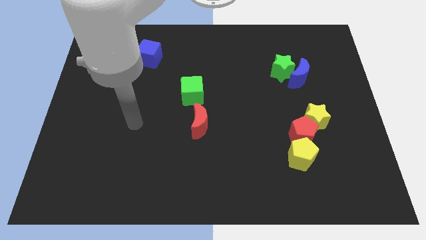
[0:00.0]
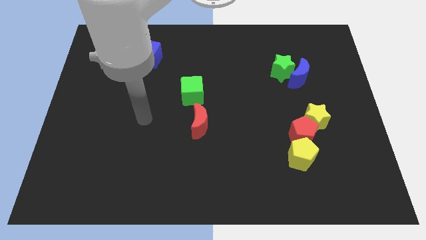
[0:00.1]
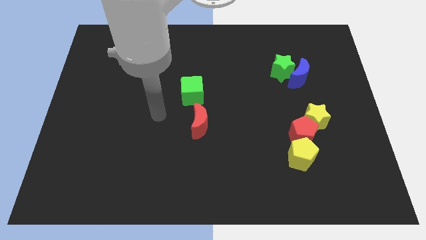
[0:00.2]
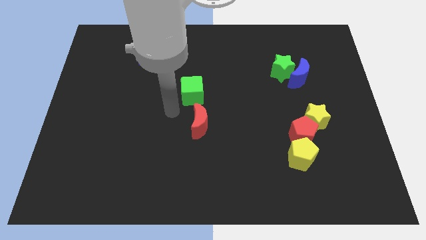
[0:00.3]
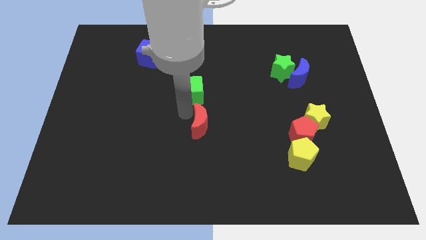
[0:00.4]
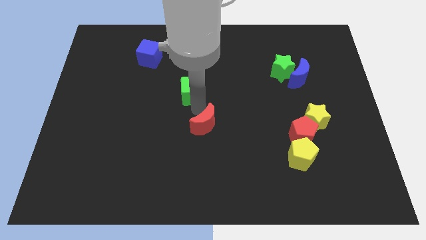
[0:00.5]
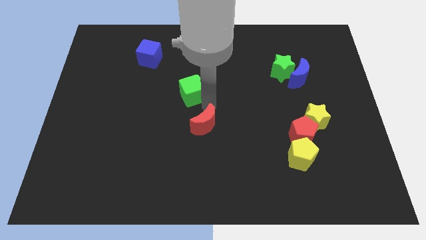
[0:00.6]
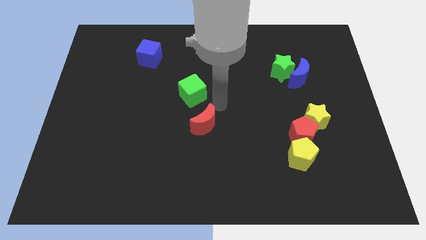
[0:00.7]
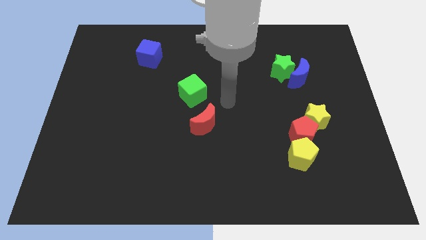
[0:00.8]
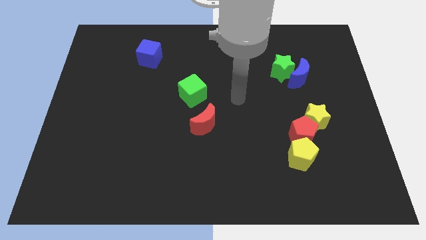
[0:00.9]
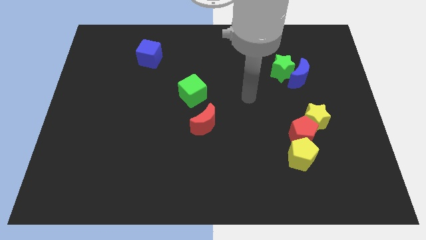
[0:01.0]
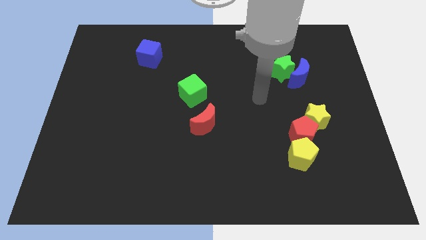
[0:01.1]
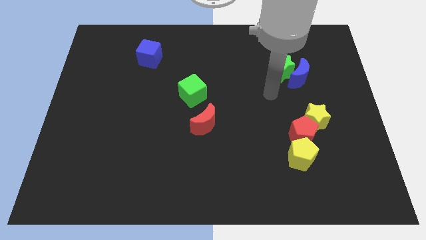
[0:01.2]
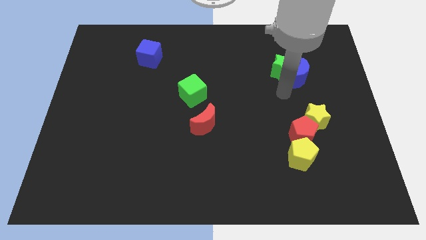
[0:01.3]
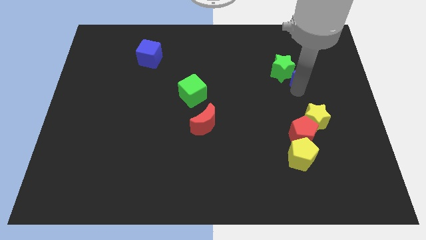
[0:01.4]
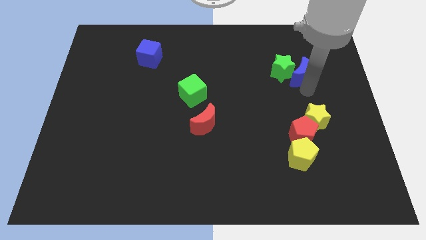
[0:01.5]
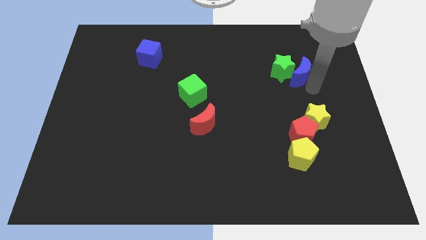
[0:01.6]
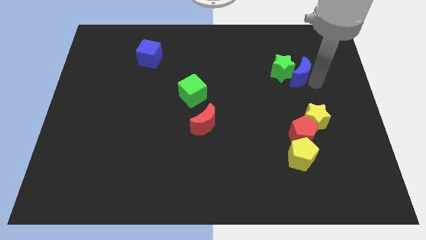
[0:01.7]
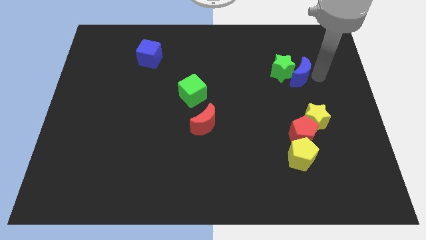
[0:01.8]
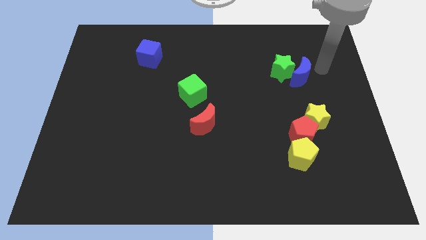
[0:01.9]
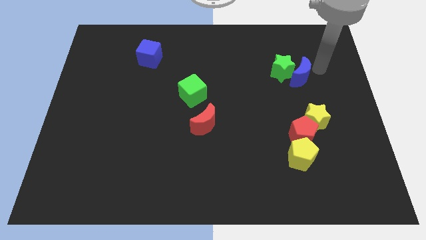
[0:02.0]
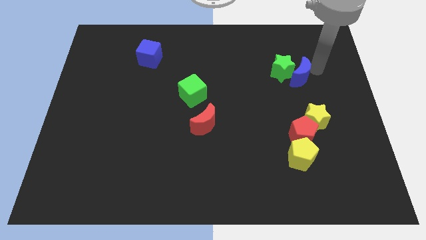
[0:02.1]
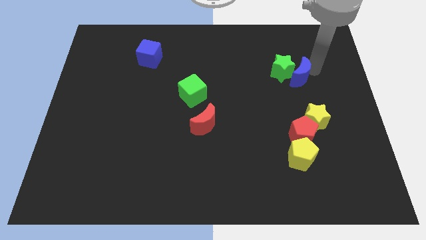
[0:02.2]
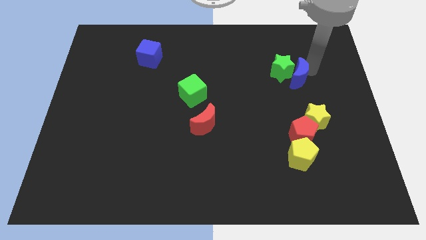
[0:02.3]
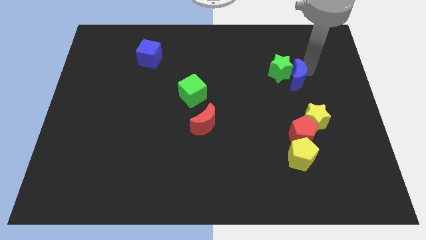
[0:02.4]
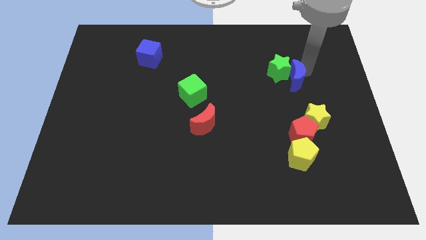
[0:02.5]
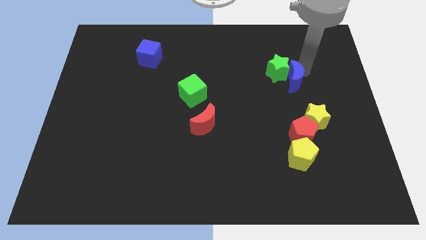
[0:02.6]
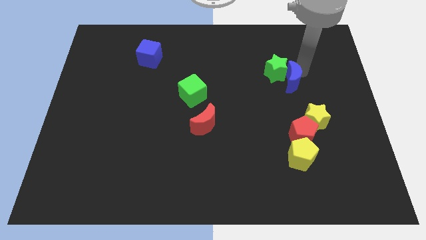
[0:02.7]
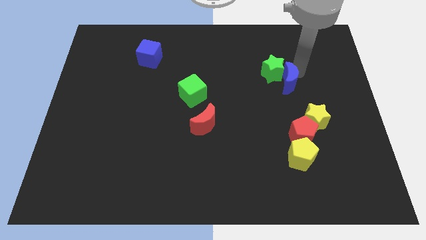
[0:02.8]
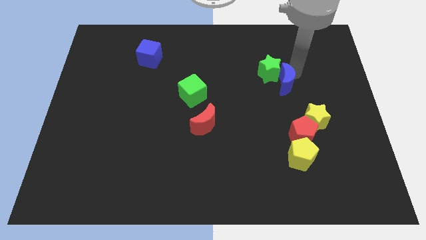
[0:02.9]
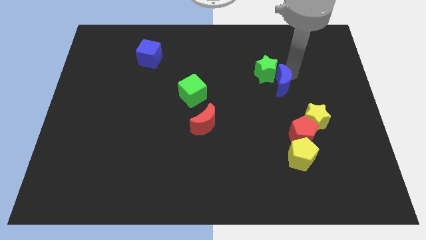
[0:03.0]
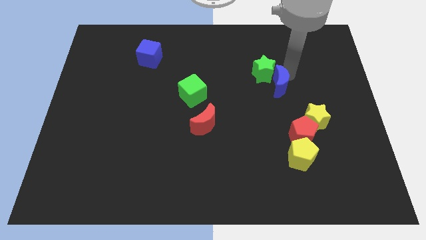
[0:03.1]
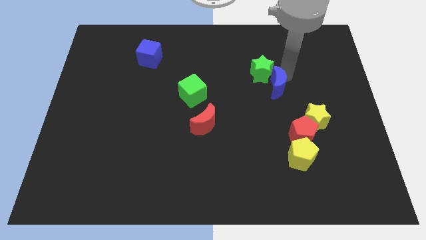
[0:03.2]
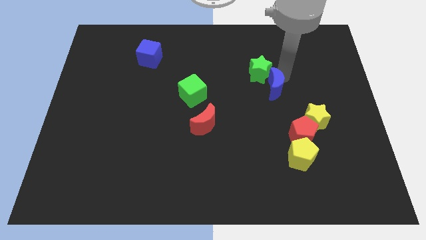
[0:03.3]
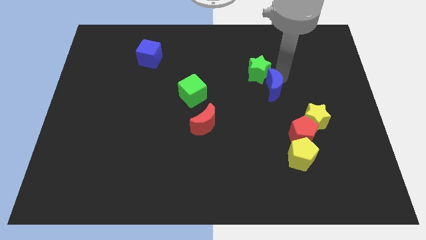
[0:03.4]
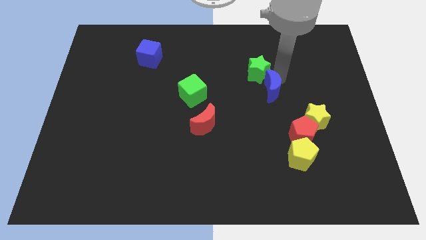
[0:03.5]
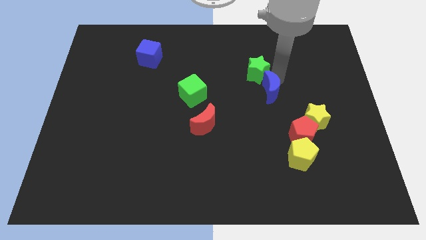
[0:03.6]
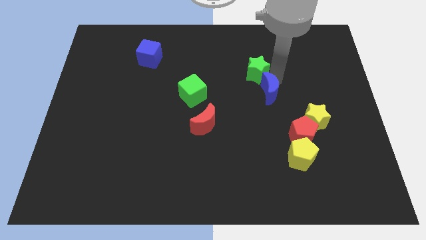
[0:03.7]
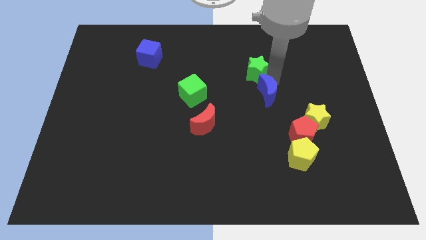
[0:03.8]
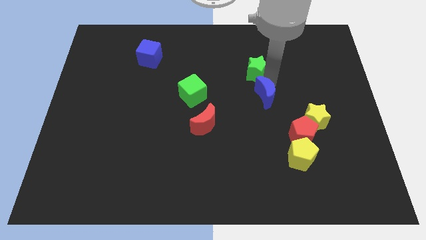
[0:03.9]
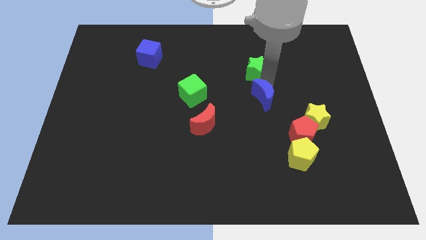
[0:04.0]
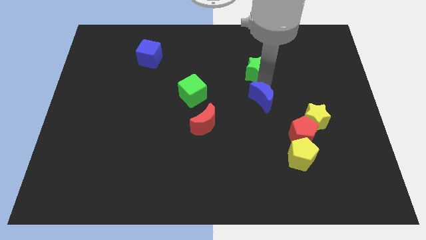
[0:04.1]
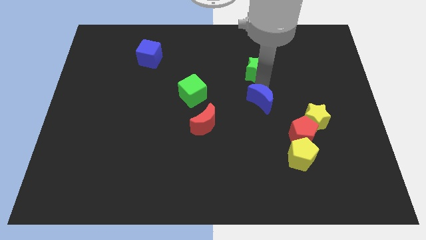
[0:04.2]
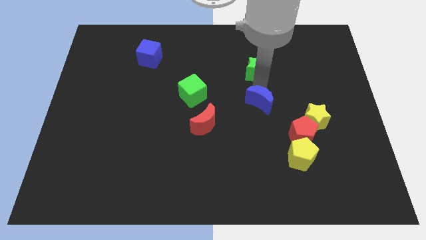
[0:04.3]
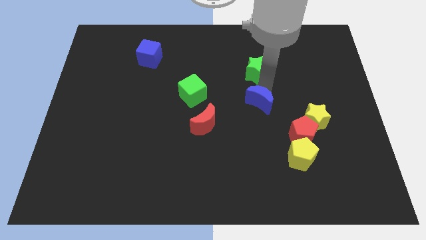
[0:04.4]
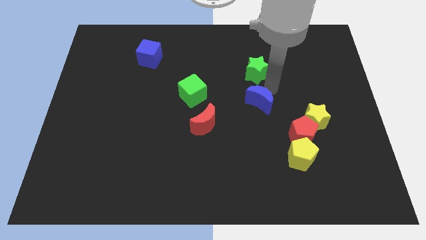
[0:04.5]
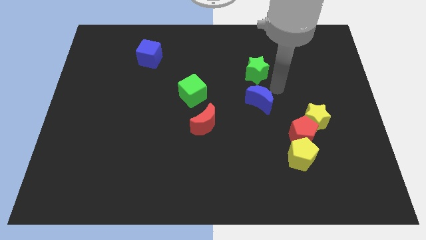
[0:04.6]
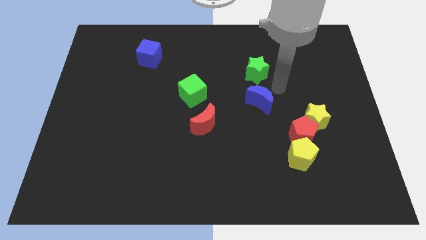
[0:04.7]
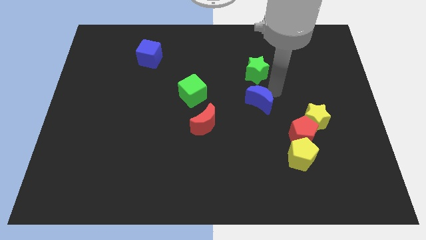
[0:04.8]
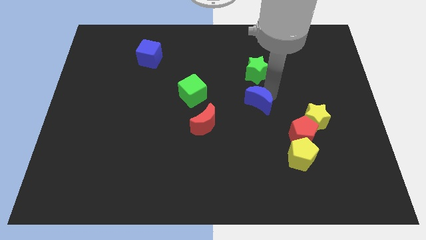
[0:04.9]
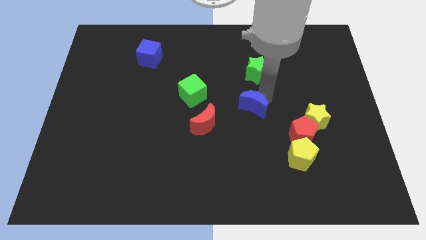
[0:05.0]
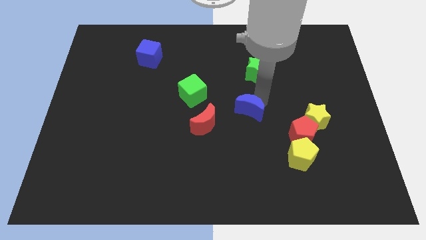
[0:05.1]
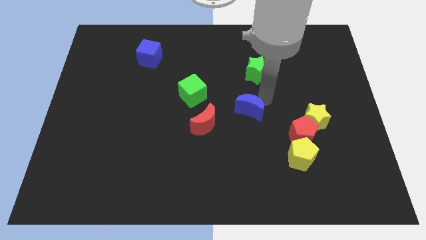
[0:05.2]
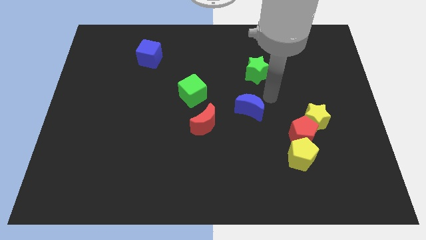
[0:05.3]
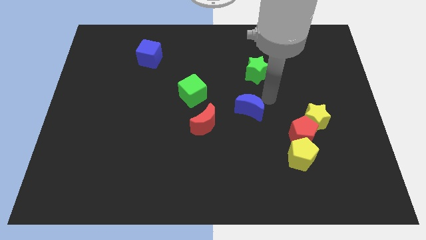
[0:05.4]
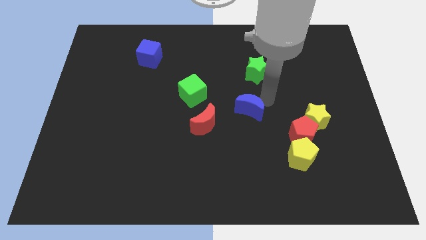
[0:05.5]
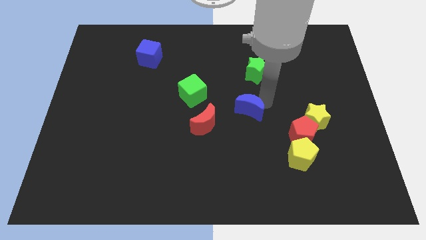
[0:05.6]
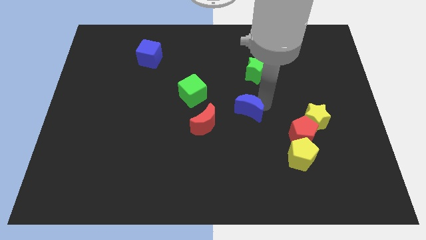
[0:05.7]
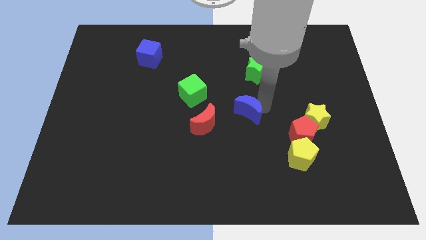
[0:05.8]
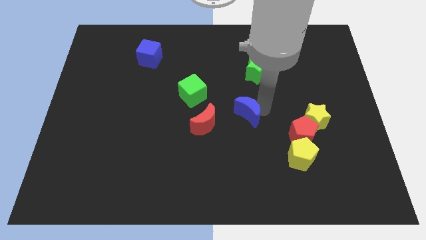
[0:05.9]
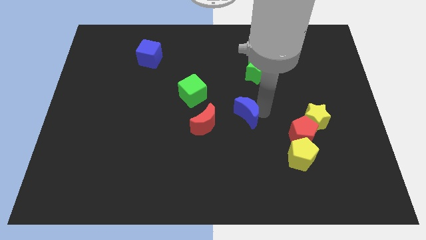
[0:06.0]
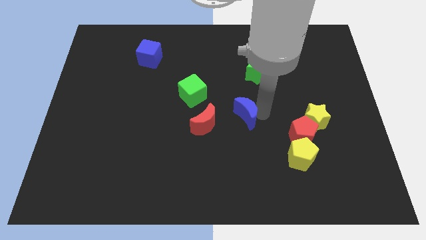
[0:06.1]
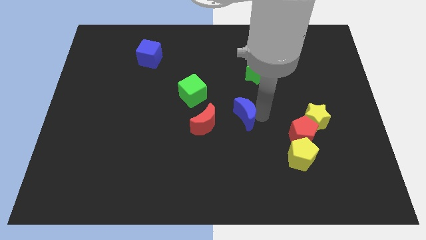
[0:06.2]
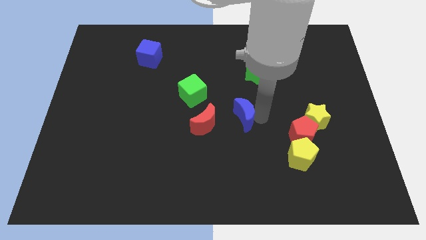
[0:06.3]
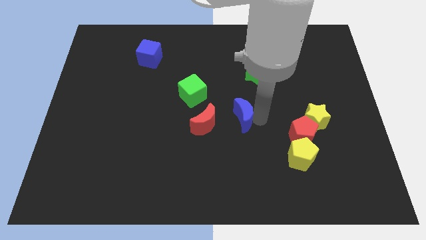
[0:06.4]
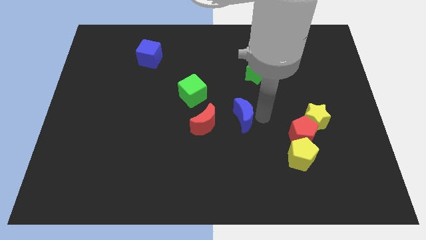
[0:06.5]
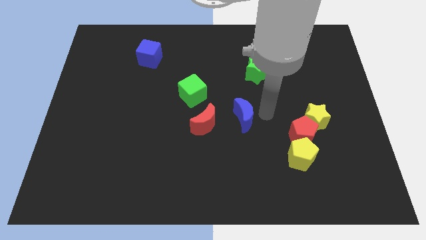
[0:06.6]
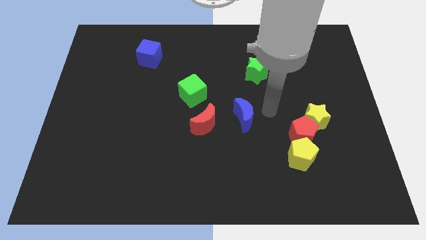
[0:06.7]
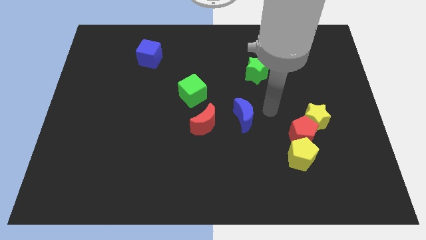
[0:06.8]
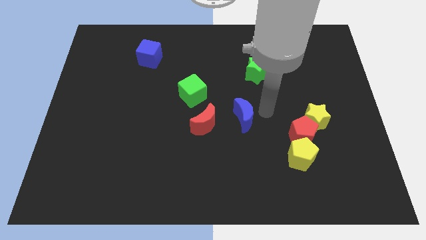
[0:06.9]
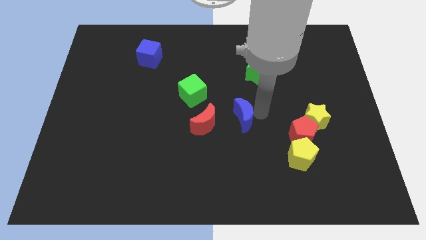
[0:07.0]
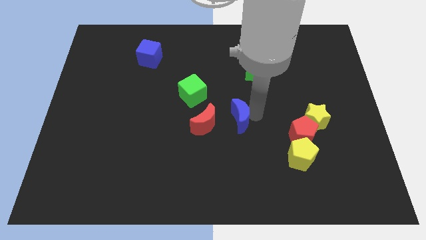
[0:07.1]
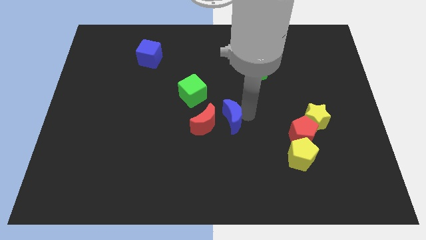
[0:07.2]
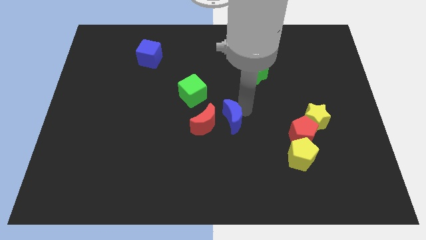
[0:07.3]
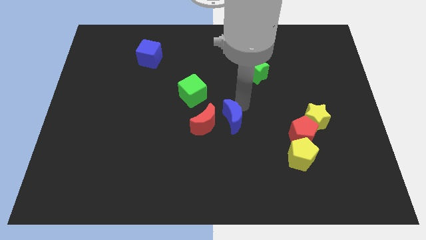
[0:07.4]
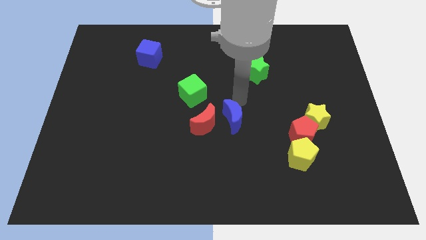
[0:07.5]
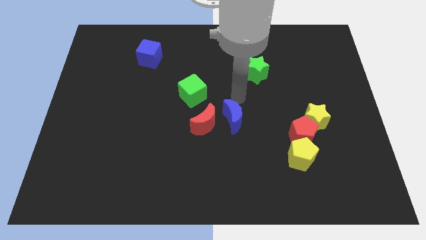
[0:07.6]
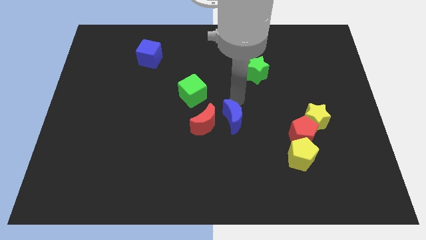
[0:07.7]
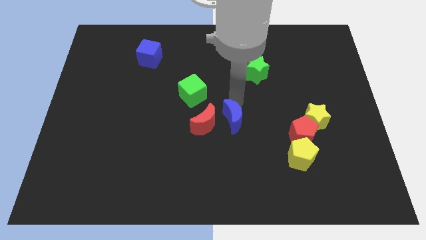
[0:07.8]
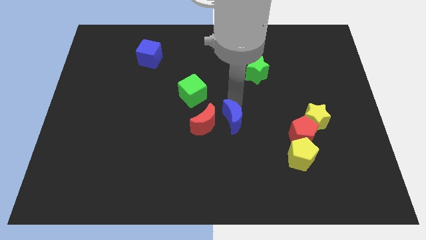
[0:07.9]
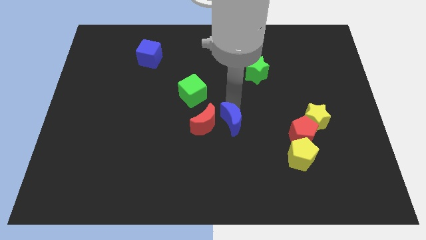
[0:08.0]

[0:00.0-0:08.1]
push the blue moon to the bottom right side of the red moon
